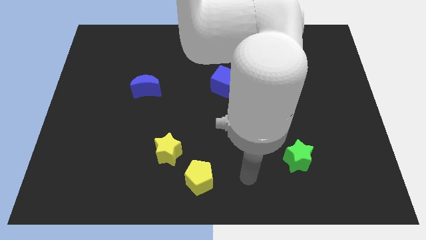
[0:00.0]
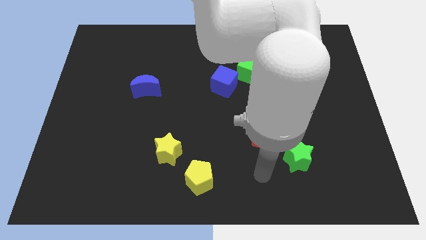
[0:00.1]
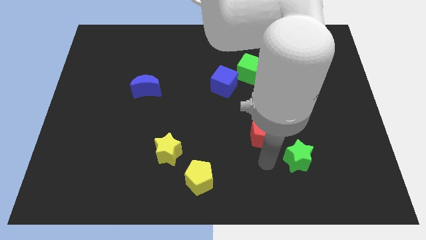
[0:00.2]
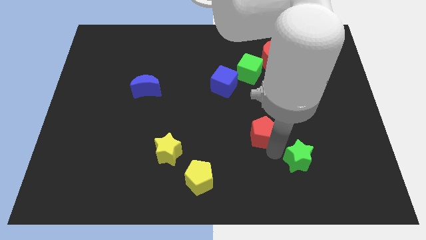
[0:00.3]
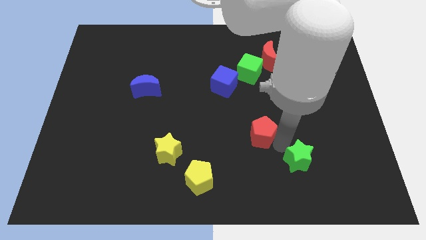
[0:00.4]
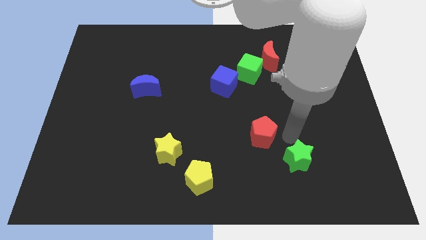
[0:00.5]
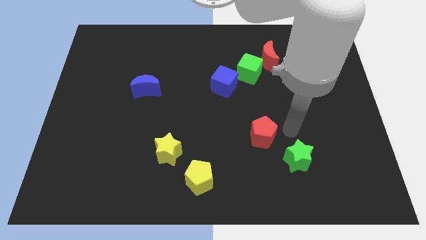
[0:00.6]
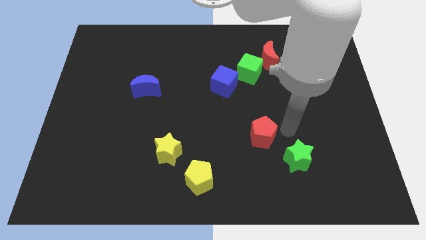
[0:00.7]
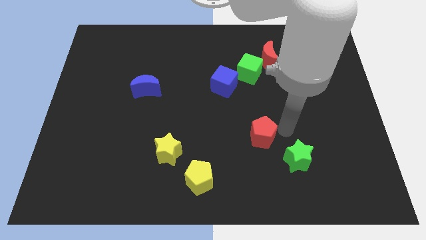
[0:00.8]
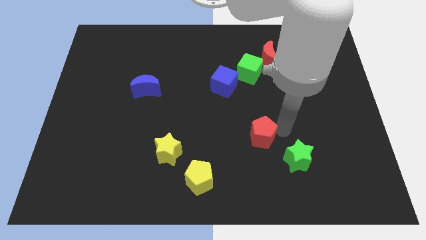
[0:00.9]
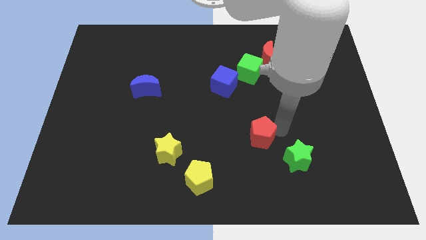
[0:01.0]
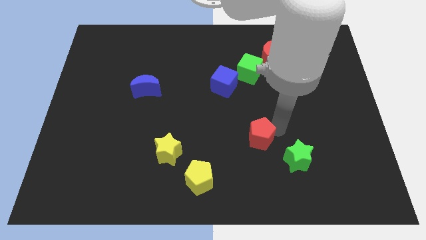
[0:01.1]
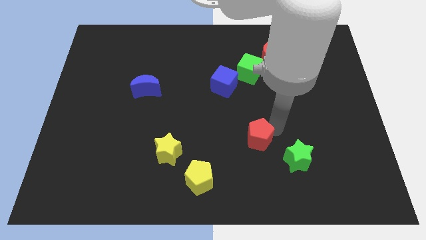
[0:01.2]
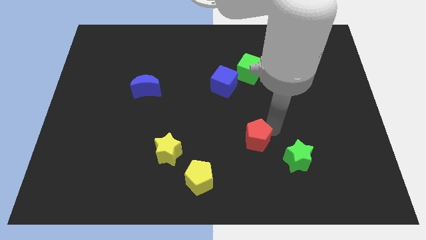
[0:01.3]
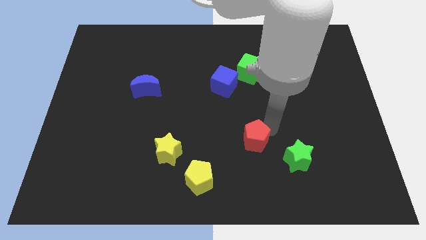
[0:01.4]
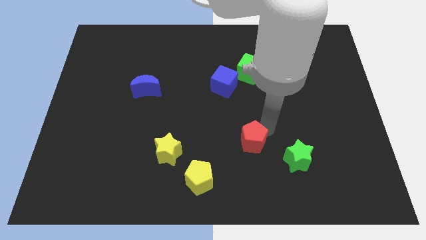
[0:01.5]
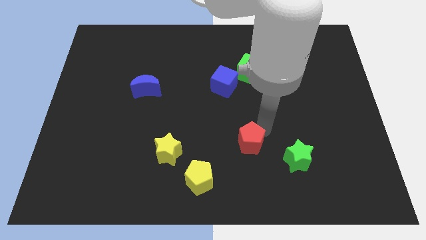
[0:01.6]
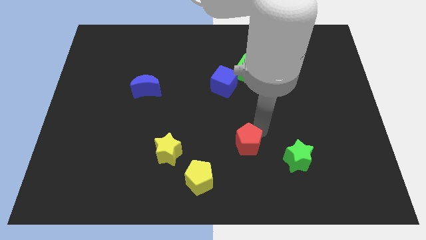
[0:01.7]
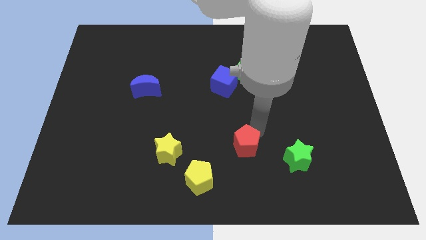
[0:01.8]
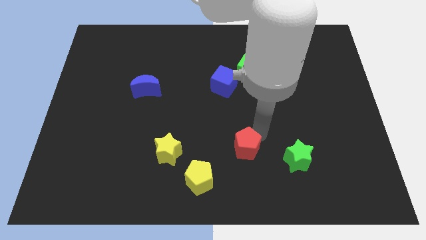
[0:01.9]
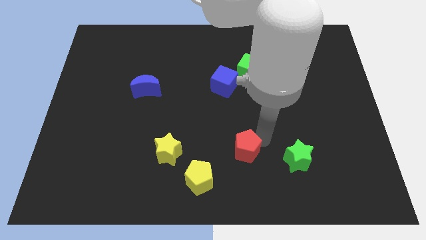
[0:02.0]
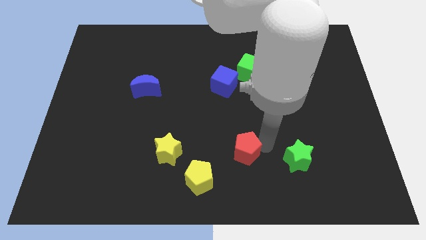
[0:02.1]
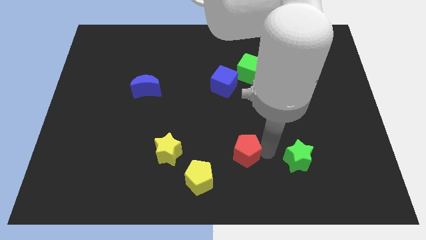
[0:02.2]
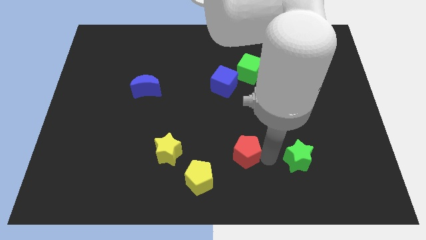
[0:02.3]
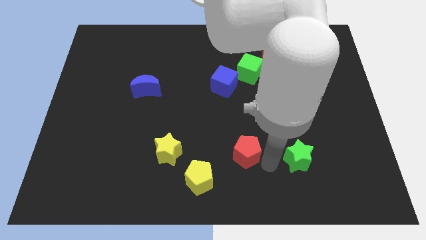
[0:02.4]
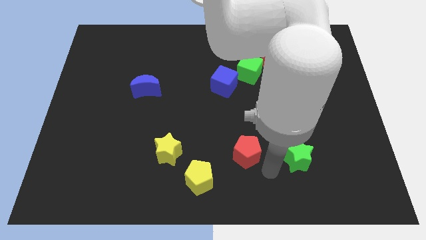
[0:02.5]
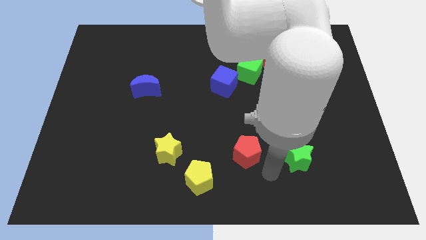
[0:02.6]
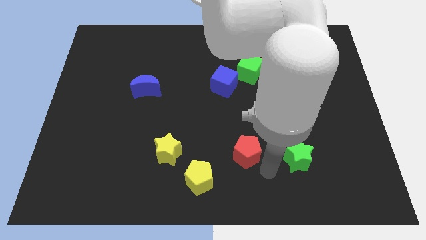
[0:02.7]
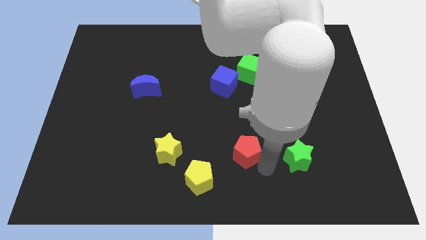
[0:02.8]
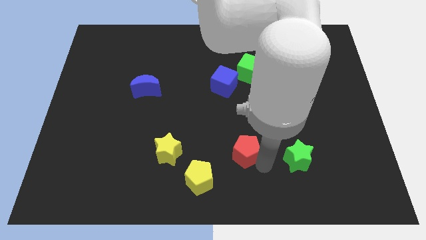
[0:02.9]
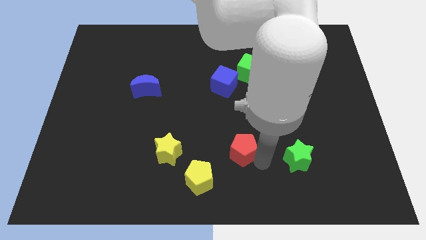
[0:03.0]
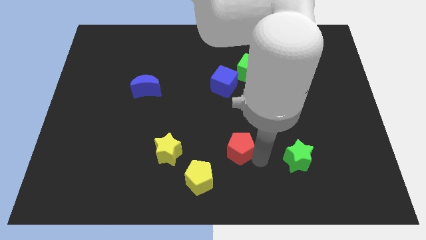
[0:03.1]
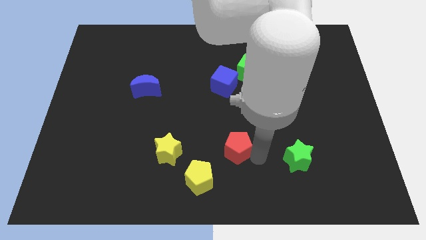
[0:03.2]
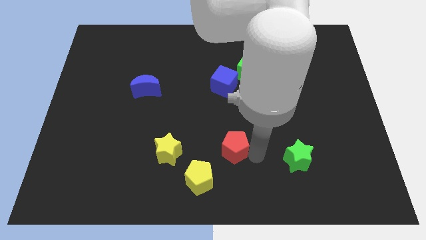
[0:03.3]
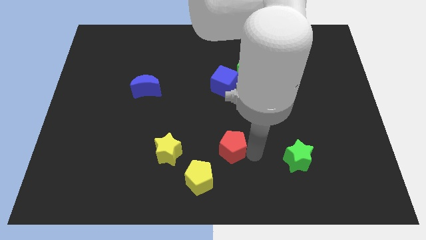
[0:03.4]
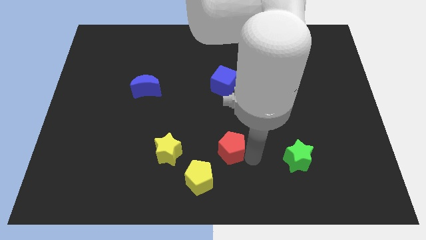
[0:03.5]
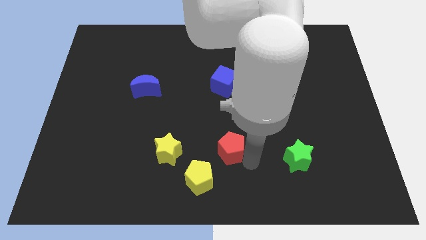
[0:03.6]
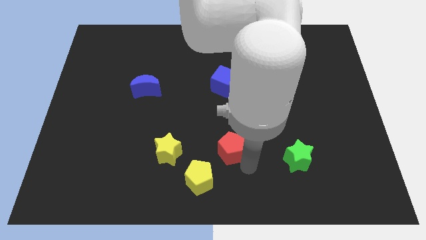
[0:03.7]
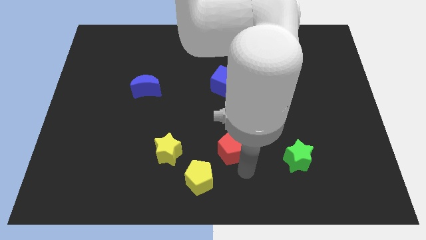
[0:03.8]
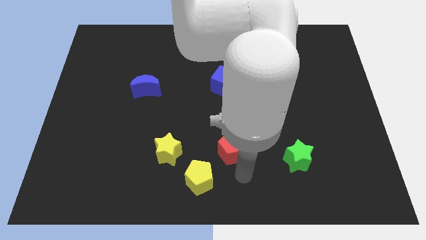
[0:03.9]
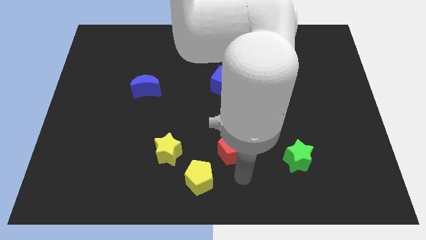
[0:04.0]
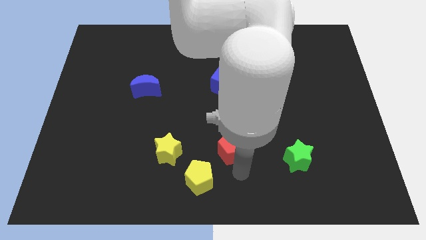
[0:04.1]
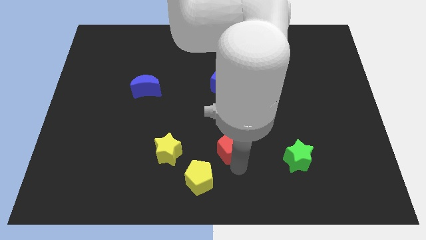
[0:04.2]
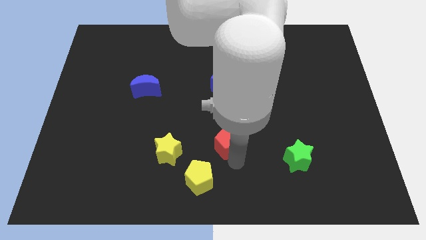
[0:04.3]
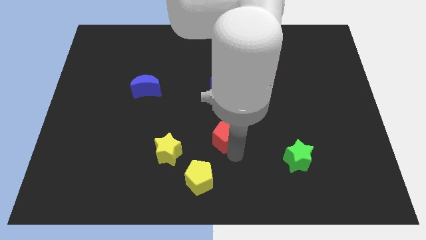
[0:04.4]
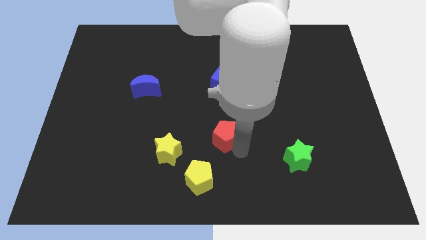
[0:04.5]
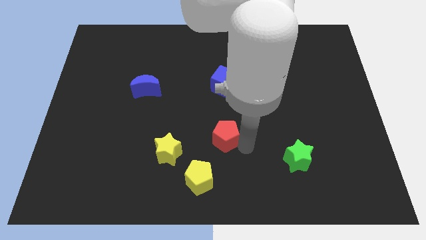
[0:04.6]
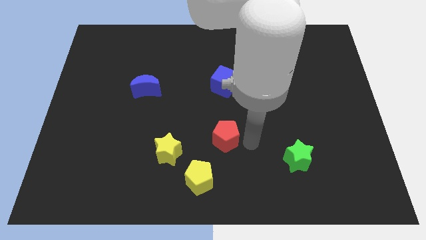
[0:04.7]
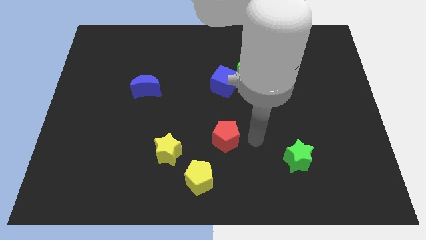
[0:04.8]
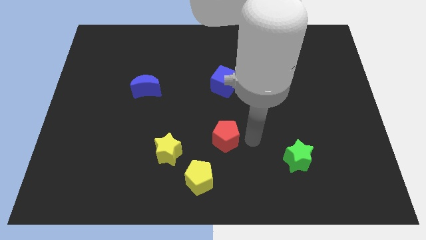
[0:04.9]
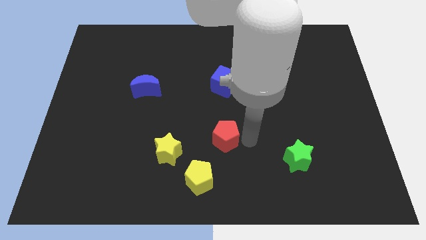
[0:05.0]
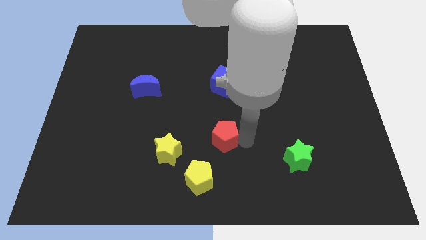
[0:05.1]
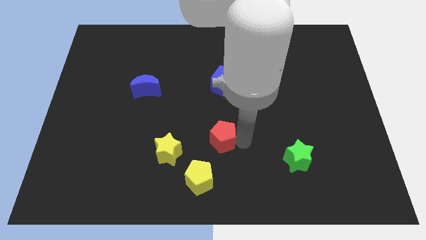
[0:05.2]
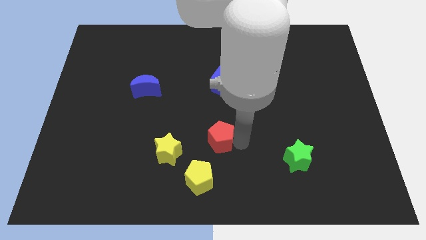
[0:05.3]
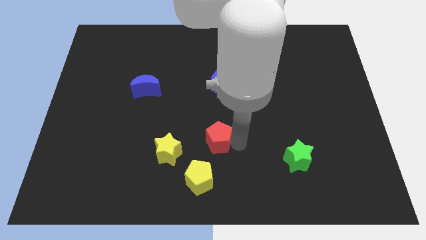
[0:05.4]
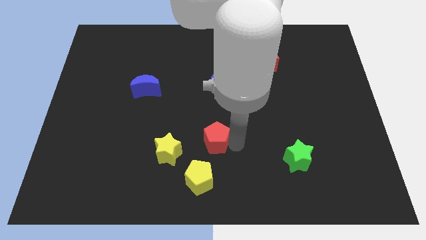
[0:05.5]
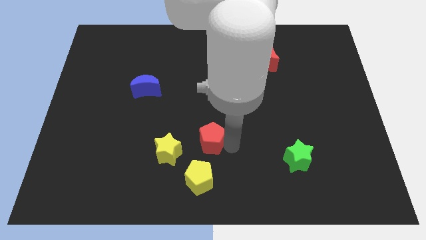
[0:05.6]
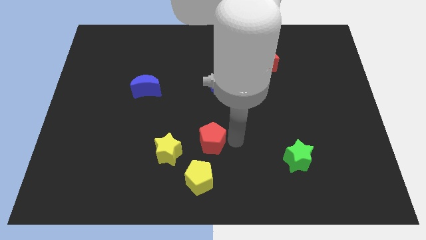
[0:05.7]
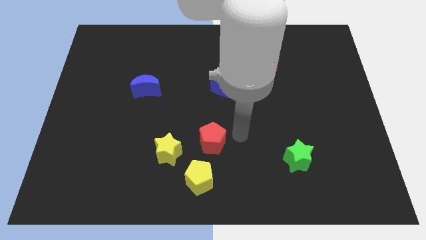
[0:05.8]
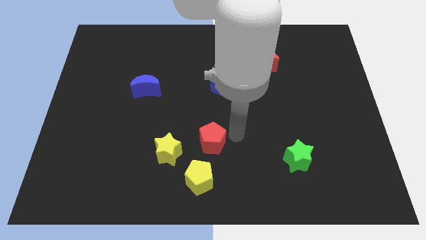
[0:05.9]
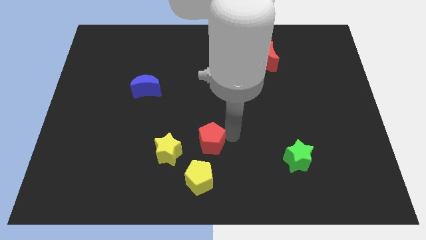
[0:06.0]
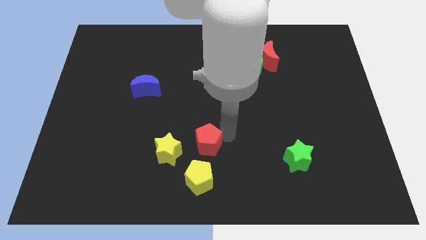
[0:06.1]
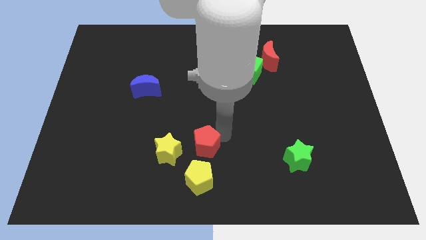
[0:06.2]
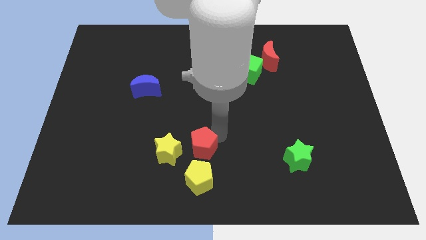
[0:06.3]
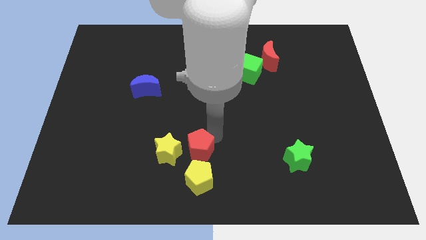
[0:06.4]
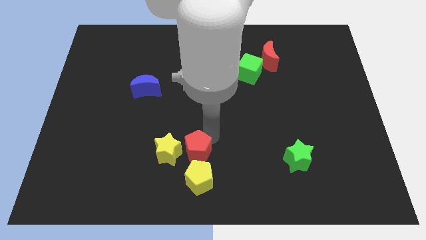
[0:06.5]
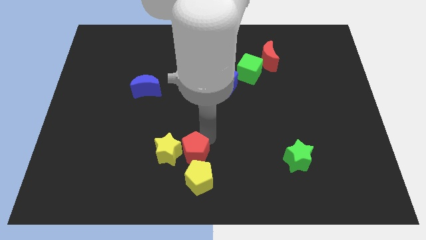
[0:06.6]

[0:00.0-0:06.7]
push the red pentagon towards the yellow star

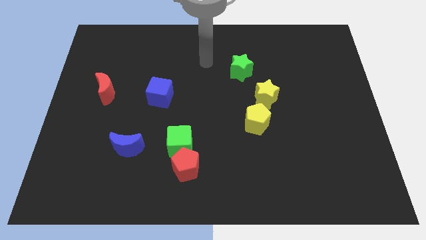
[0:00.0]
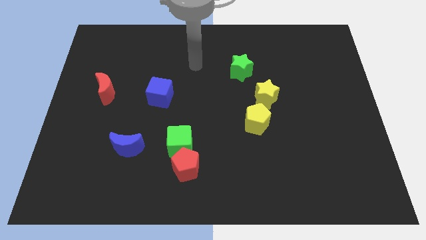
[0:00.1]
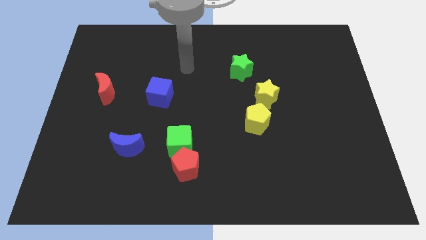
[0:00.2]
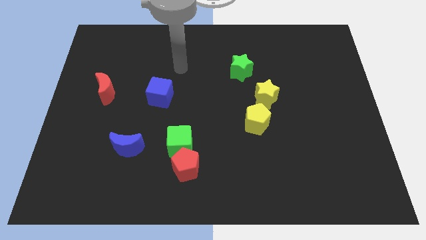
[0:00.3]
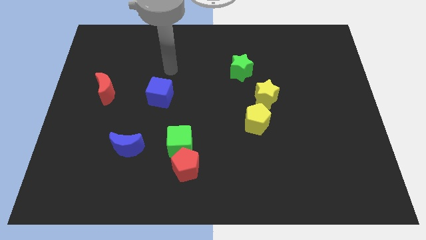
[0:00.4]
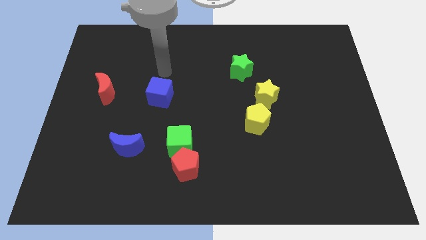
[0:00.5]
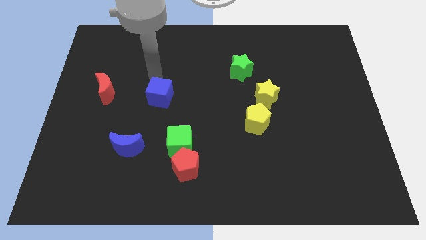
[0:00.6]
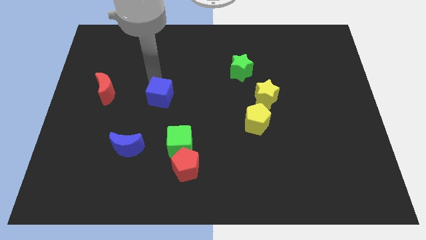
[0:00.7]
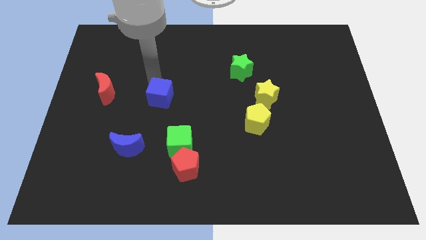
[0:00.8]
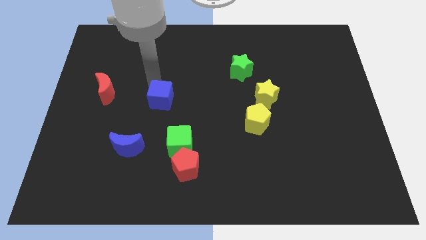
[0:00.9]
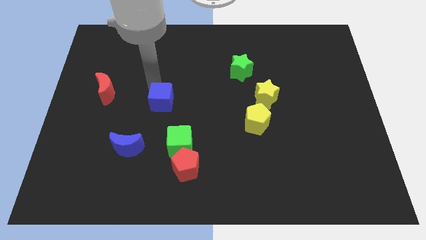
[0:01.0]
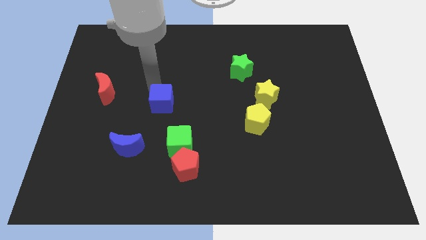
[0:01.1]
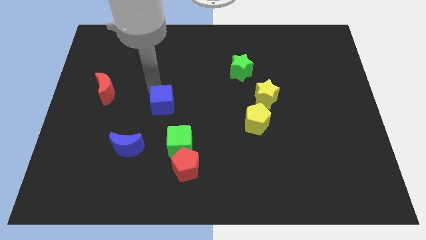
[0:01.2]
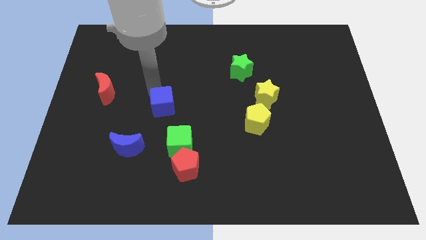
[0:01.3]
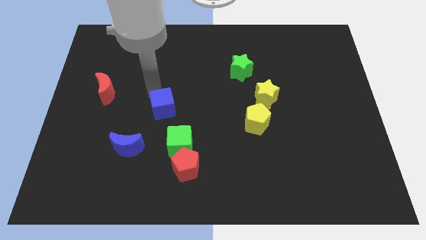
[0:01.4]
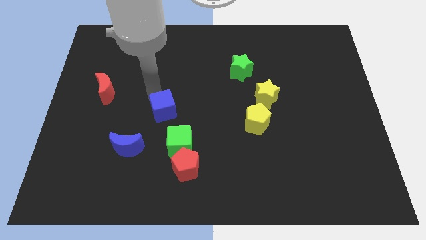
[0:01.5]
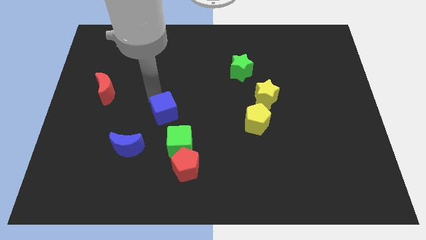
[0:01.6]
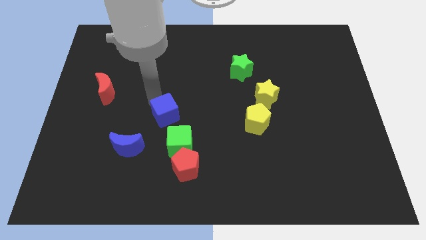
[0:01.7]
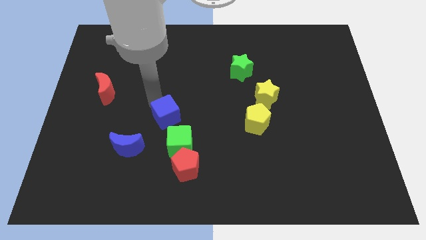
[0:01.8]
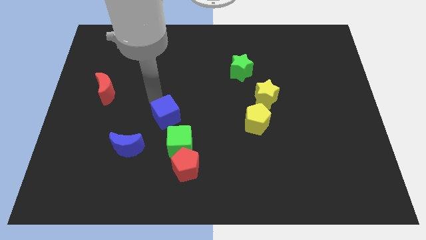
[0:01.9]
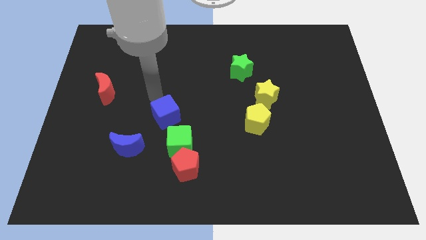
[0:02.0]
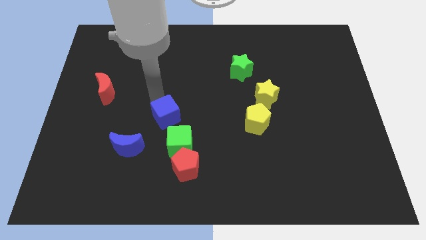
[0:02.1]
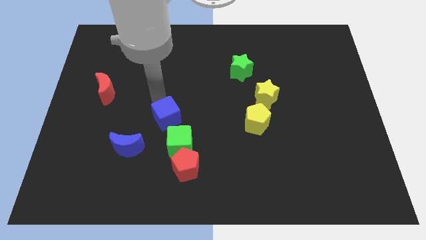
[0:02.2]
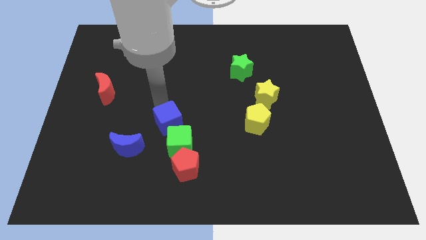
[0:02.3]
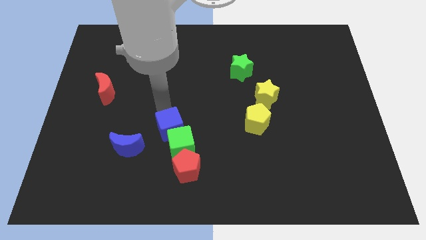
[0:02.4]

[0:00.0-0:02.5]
put the blue cube close to the green cube
